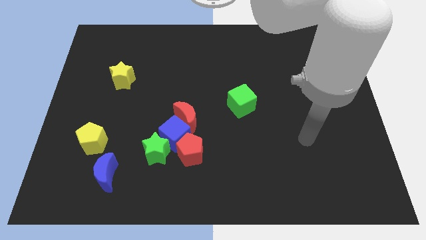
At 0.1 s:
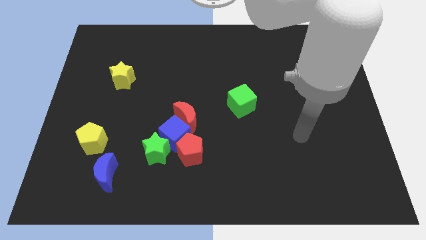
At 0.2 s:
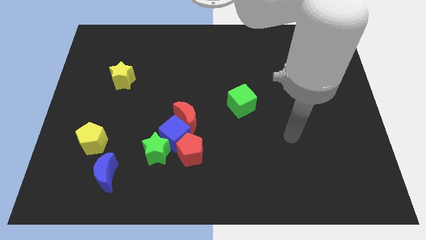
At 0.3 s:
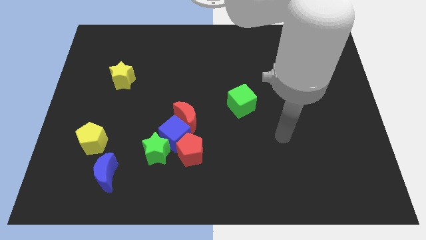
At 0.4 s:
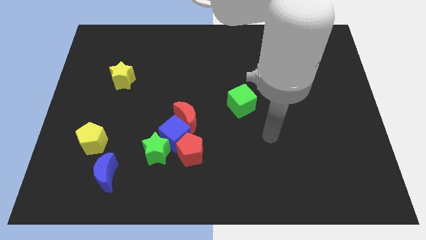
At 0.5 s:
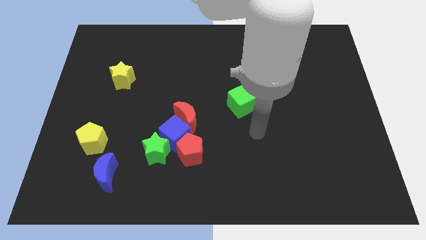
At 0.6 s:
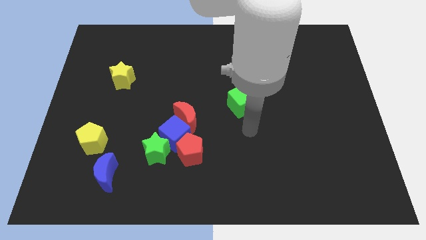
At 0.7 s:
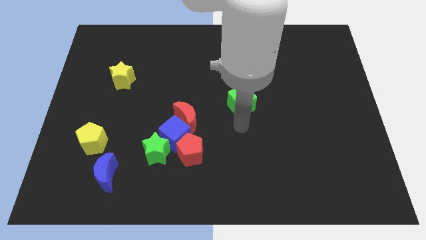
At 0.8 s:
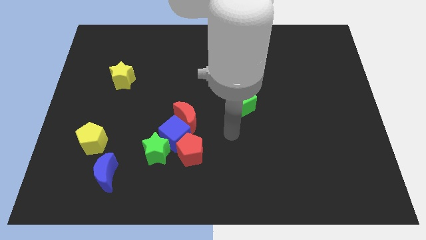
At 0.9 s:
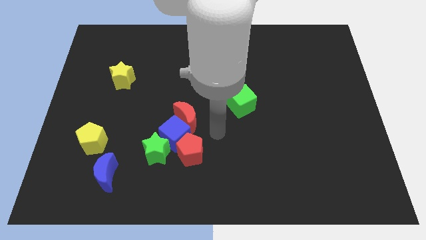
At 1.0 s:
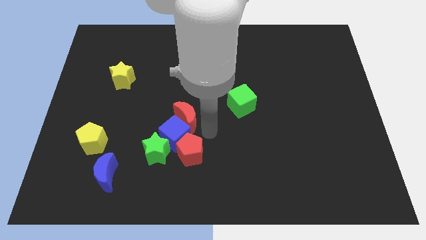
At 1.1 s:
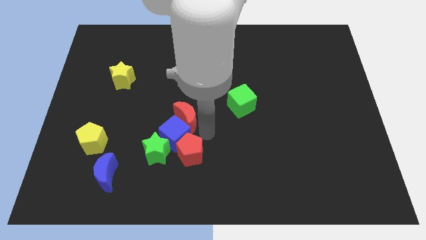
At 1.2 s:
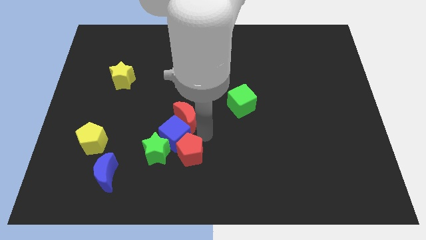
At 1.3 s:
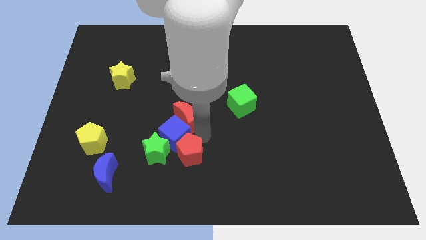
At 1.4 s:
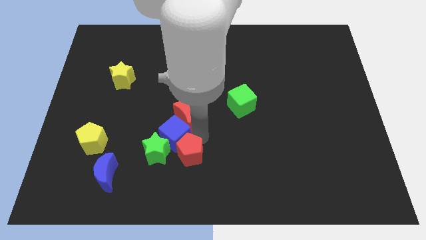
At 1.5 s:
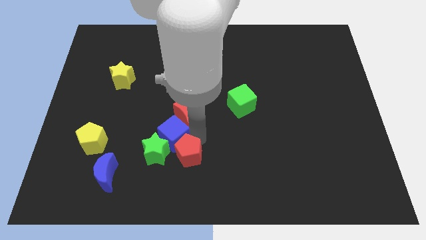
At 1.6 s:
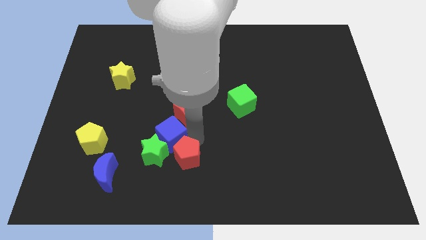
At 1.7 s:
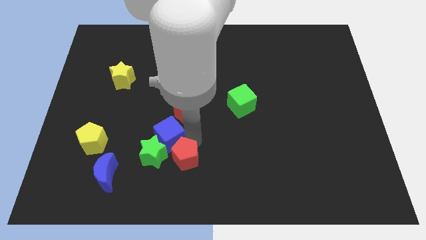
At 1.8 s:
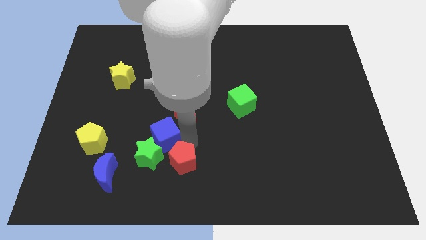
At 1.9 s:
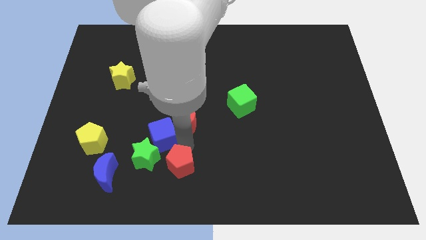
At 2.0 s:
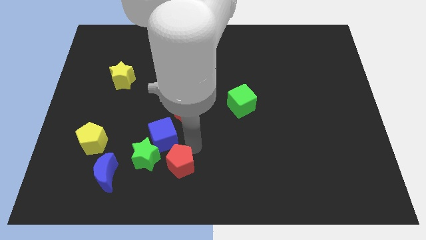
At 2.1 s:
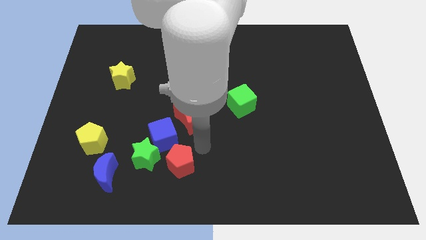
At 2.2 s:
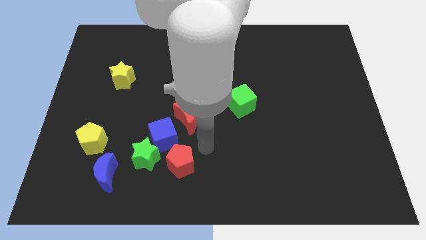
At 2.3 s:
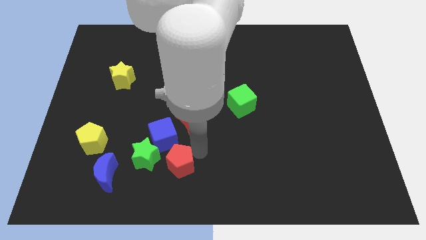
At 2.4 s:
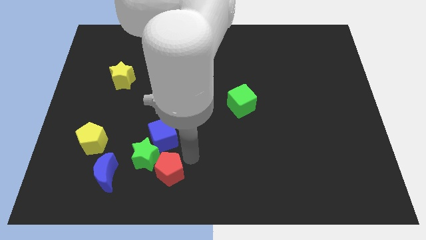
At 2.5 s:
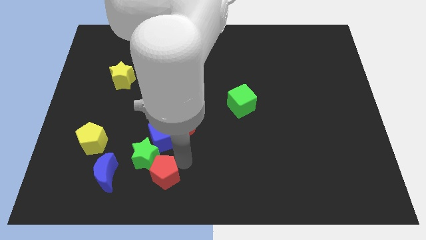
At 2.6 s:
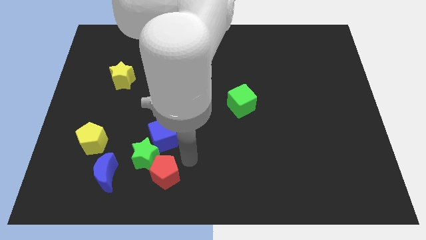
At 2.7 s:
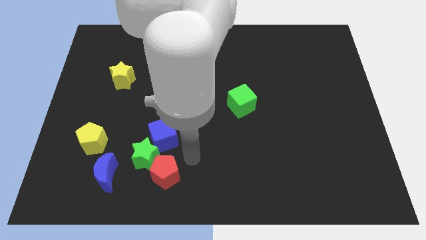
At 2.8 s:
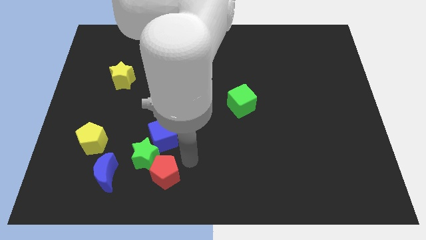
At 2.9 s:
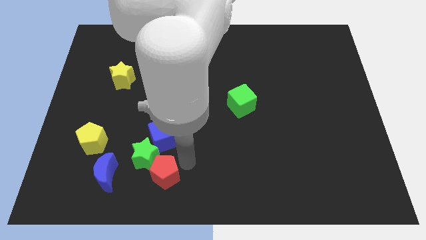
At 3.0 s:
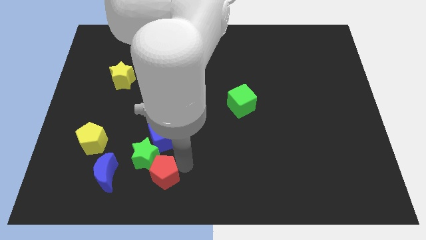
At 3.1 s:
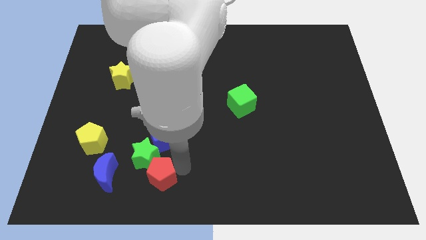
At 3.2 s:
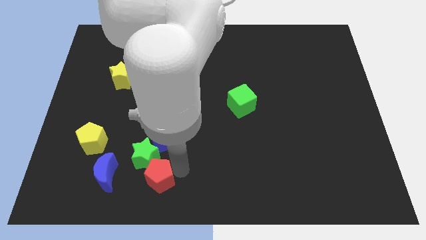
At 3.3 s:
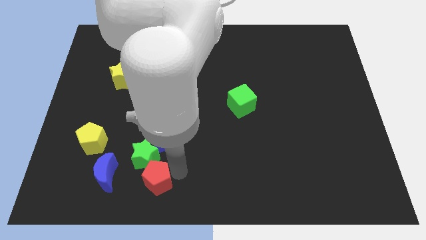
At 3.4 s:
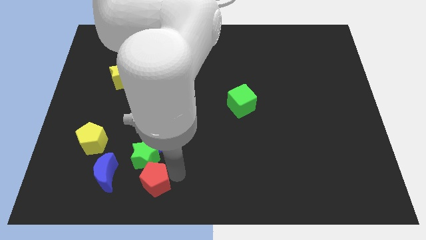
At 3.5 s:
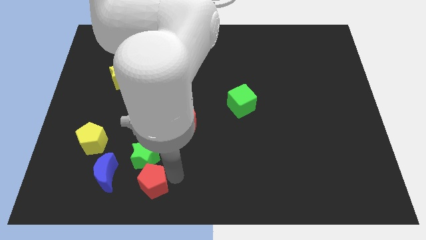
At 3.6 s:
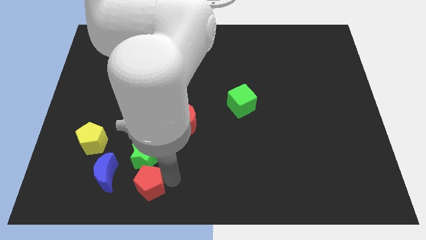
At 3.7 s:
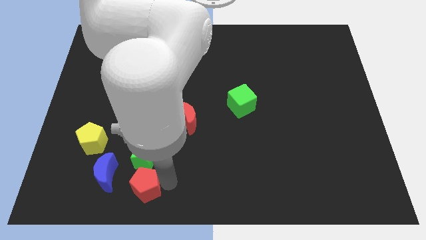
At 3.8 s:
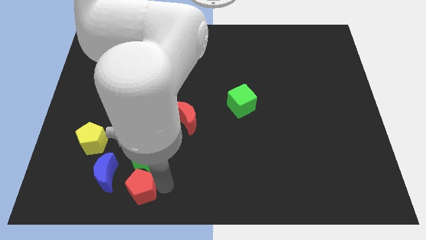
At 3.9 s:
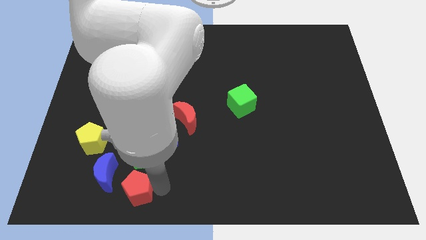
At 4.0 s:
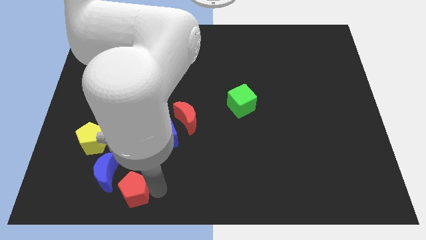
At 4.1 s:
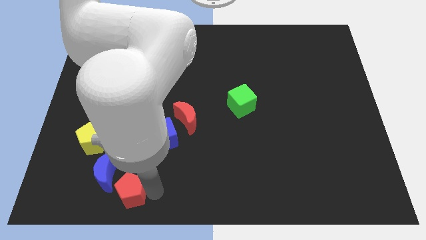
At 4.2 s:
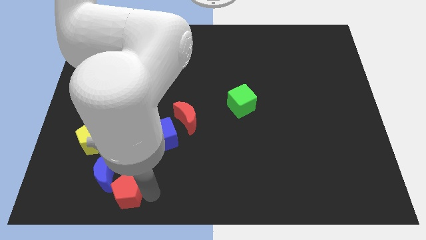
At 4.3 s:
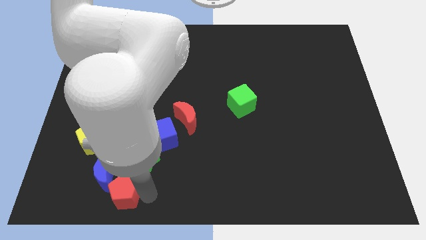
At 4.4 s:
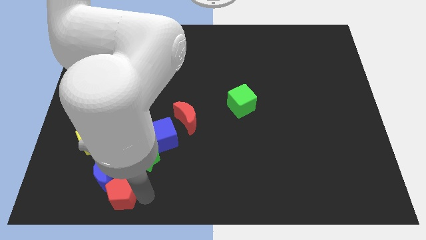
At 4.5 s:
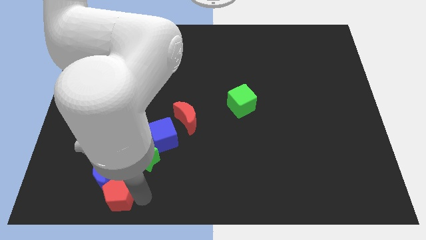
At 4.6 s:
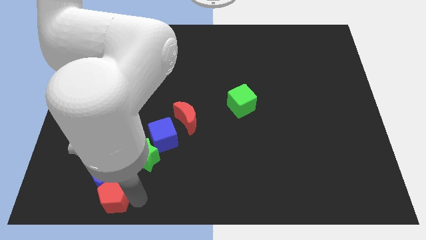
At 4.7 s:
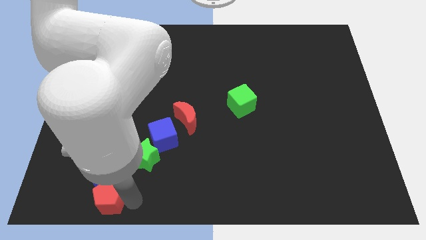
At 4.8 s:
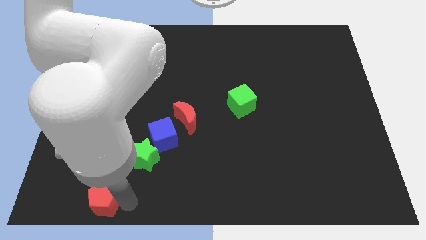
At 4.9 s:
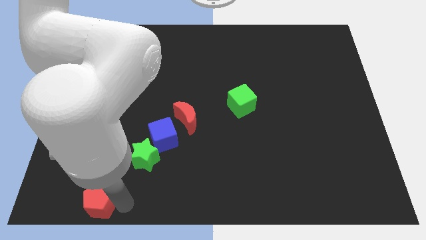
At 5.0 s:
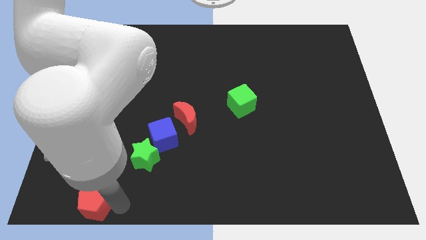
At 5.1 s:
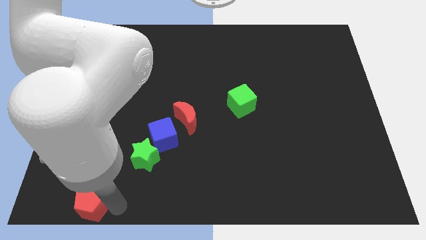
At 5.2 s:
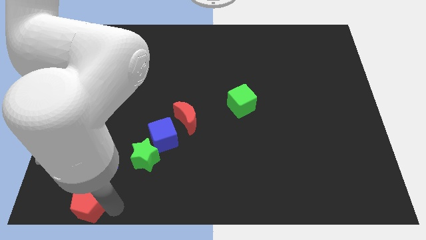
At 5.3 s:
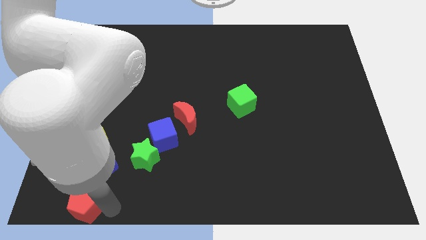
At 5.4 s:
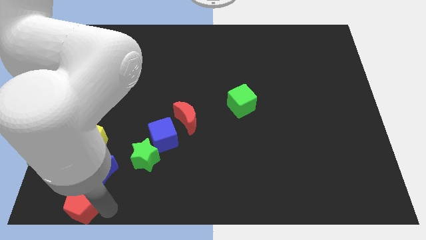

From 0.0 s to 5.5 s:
move the red pentagon to the bottom left
